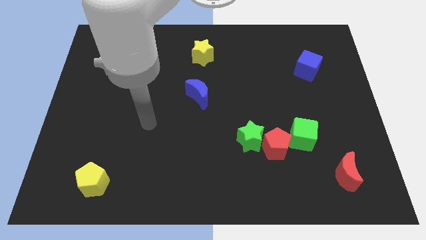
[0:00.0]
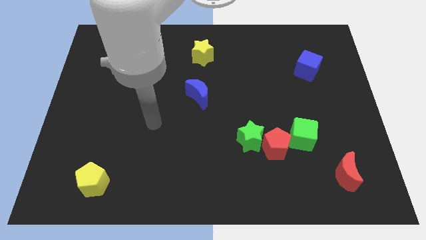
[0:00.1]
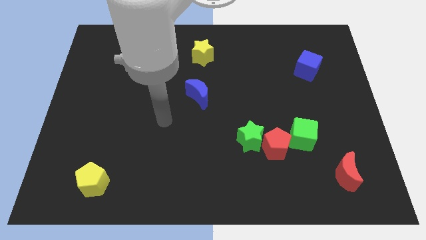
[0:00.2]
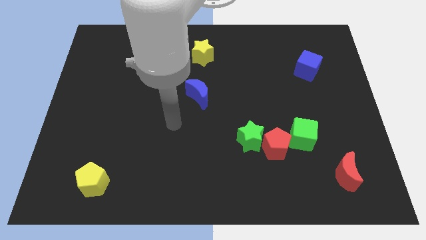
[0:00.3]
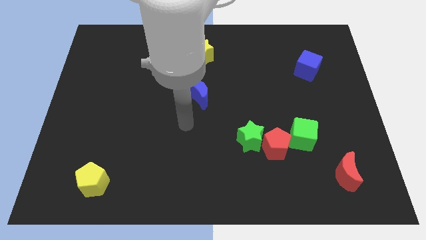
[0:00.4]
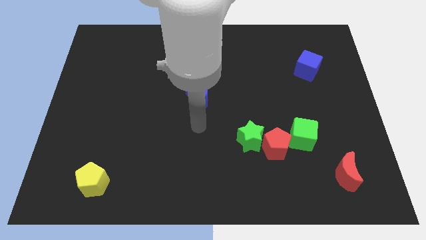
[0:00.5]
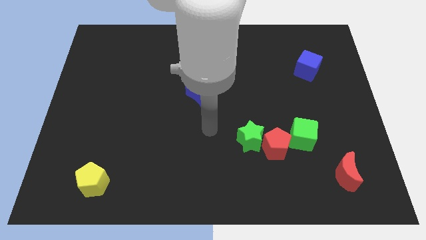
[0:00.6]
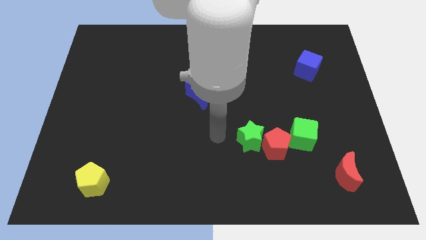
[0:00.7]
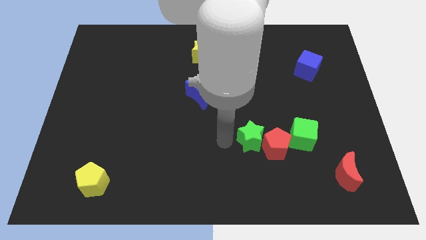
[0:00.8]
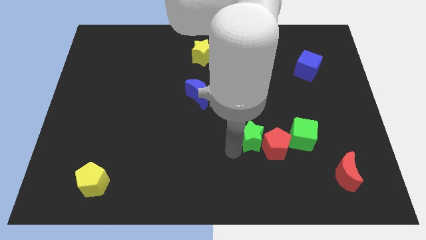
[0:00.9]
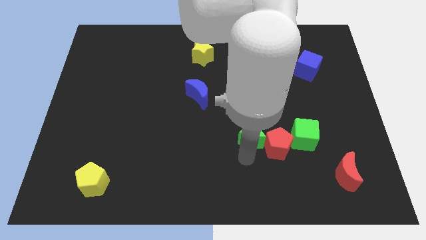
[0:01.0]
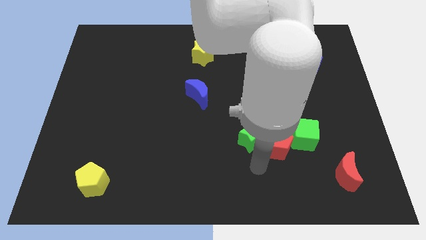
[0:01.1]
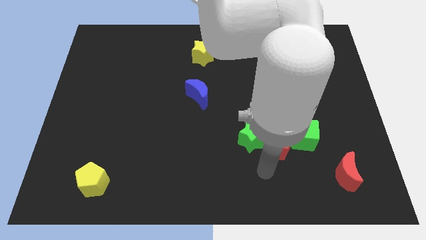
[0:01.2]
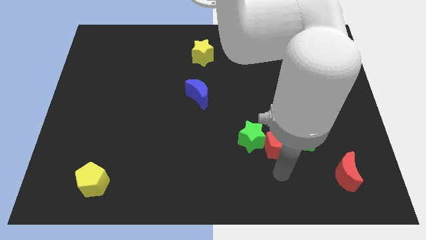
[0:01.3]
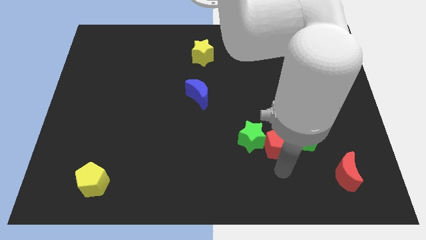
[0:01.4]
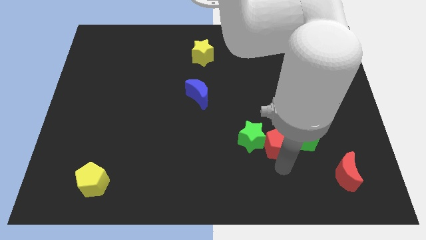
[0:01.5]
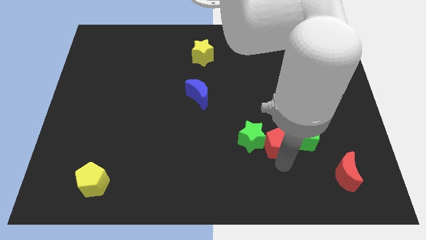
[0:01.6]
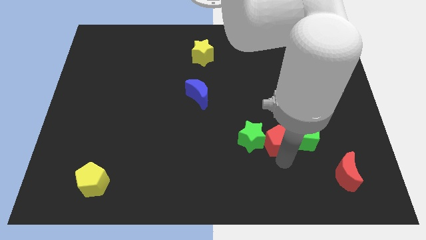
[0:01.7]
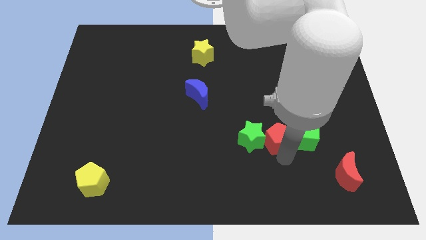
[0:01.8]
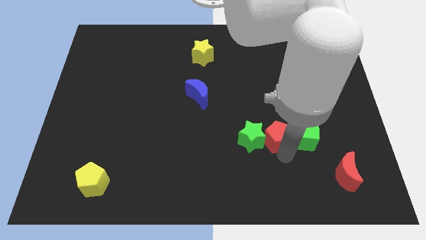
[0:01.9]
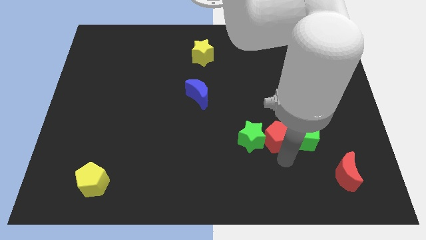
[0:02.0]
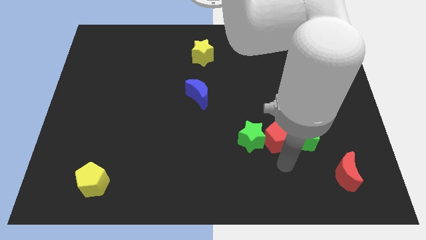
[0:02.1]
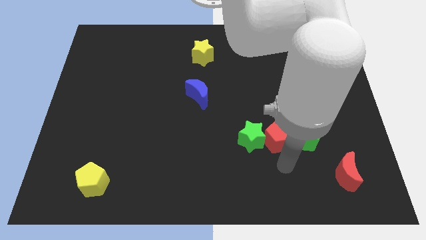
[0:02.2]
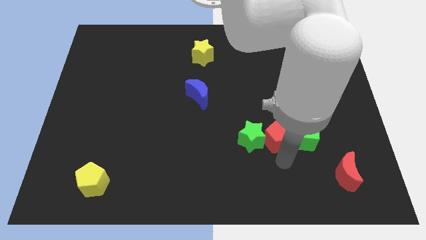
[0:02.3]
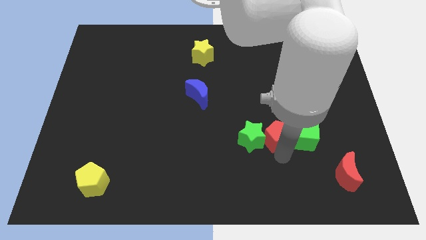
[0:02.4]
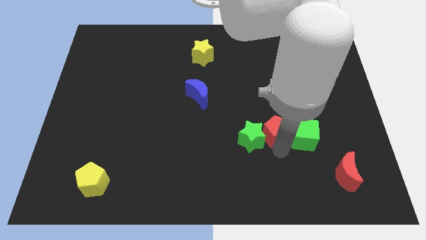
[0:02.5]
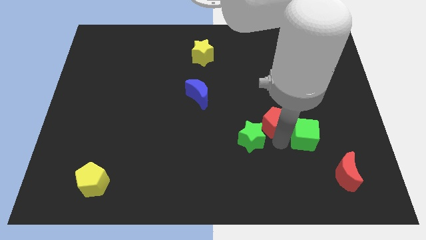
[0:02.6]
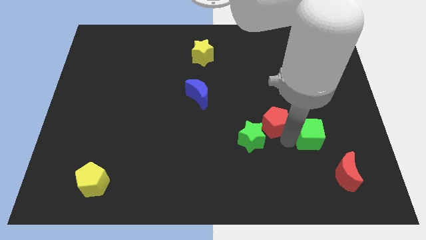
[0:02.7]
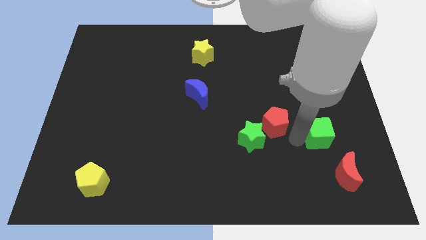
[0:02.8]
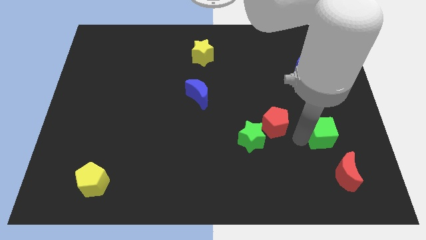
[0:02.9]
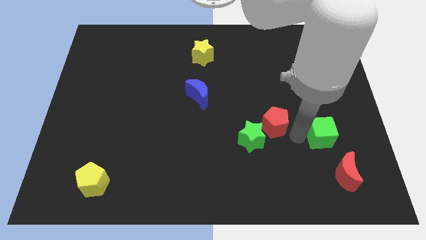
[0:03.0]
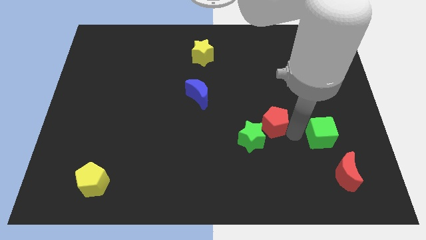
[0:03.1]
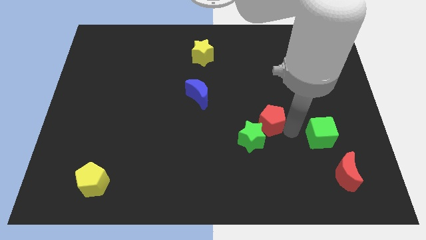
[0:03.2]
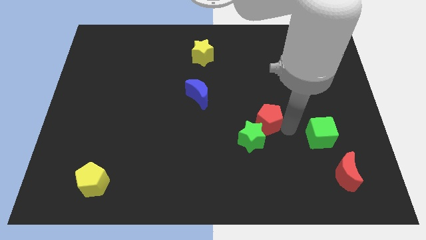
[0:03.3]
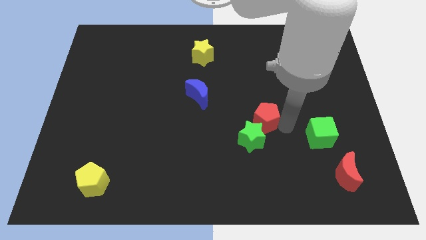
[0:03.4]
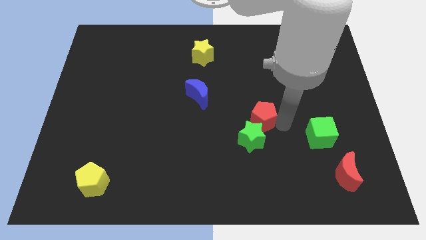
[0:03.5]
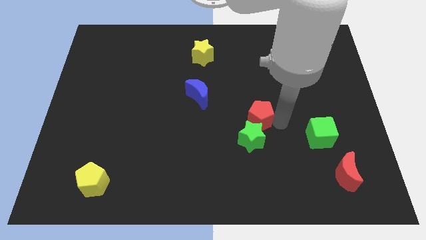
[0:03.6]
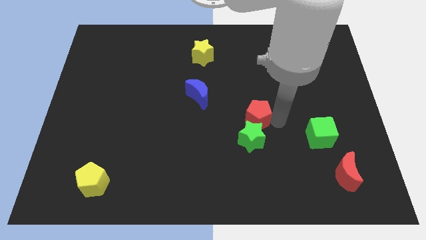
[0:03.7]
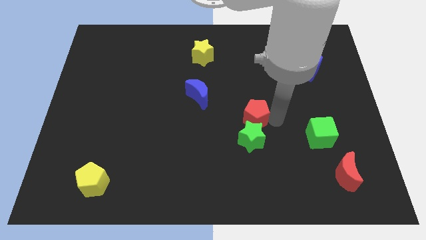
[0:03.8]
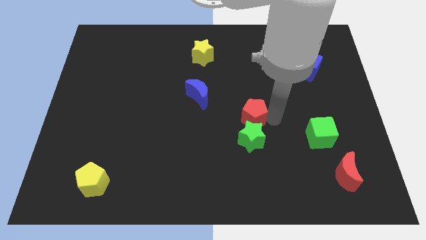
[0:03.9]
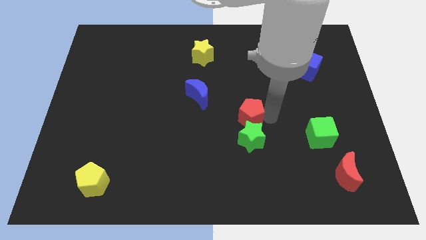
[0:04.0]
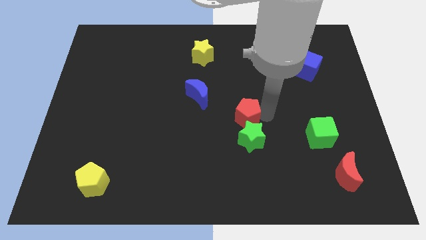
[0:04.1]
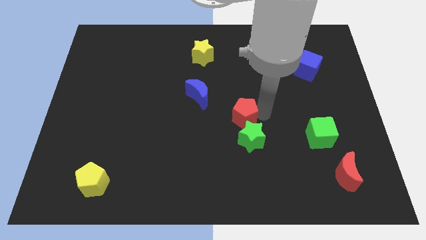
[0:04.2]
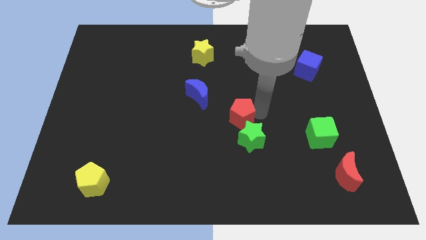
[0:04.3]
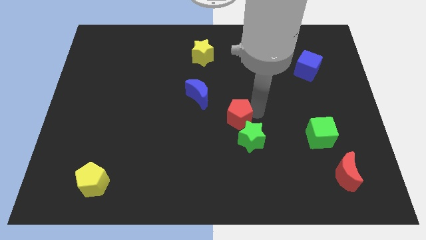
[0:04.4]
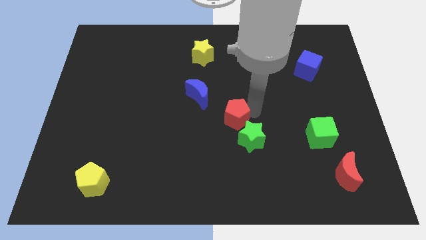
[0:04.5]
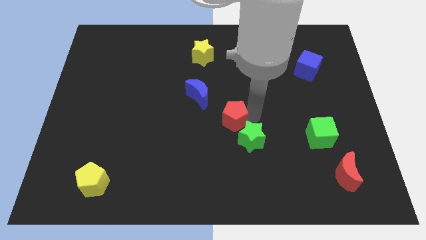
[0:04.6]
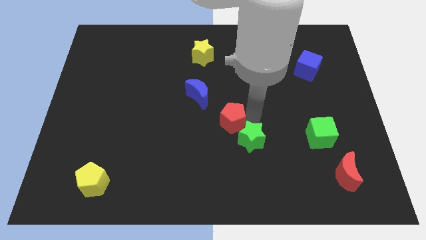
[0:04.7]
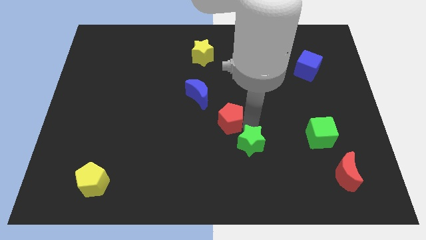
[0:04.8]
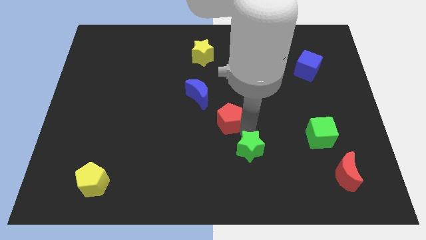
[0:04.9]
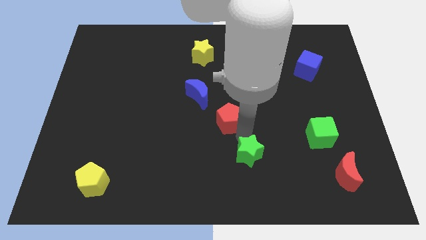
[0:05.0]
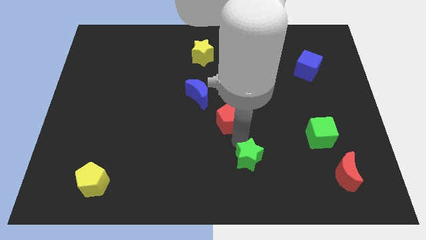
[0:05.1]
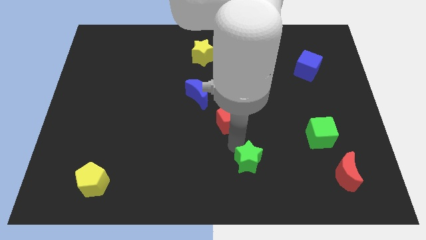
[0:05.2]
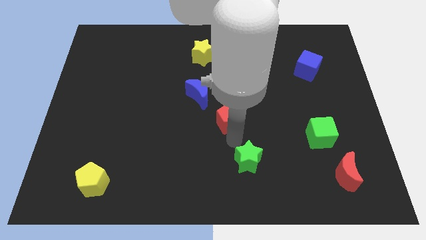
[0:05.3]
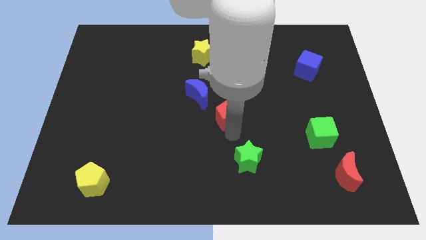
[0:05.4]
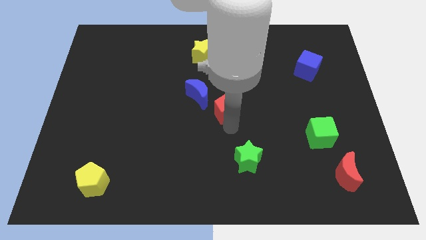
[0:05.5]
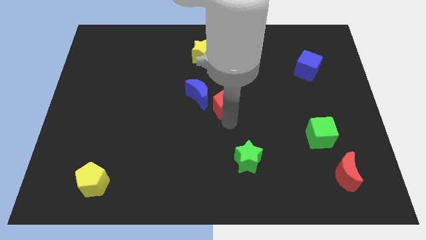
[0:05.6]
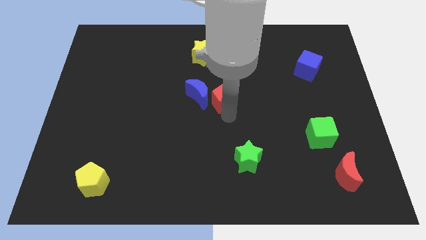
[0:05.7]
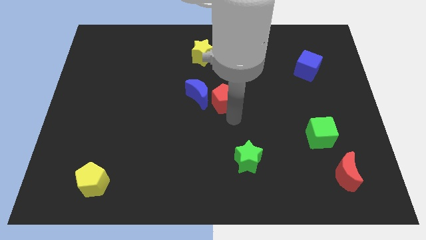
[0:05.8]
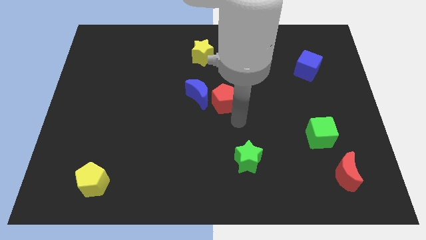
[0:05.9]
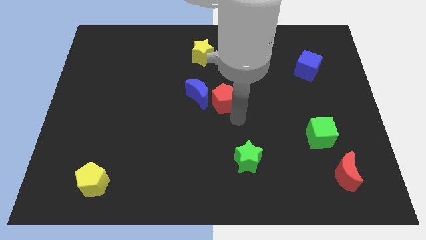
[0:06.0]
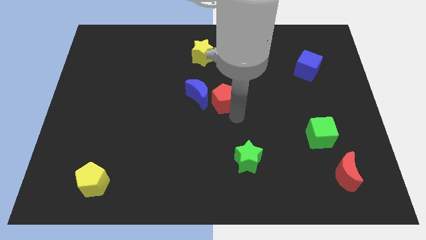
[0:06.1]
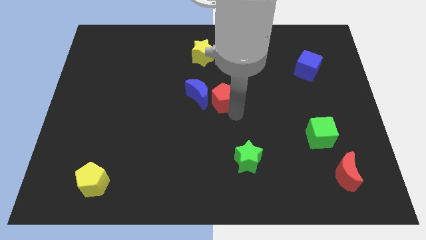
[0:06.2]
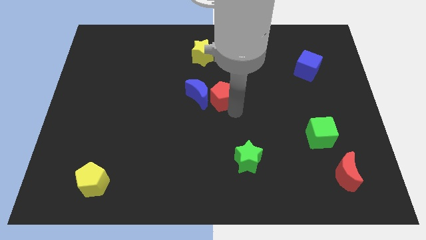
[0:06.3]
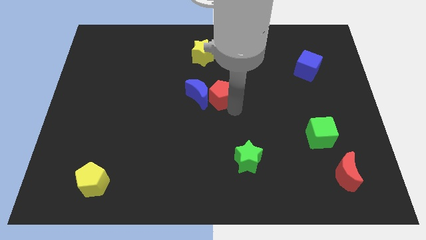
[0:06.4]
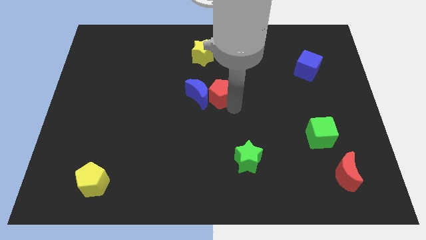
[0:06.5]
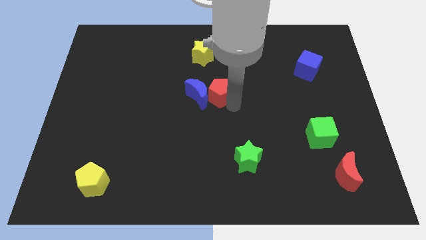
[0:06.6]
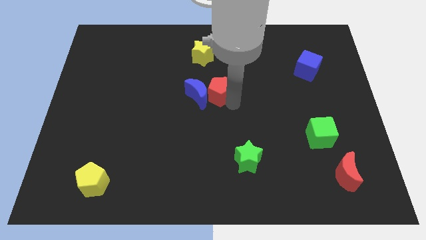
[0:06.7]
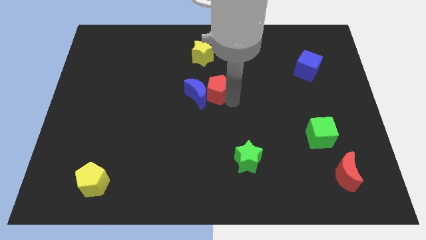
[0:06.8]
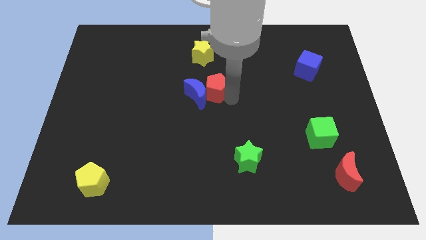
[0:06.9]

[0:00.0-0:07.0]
push the red pentagon up and then left

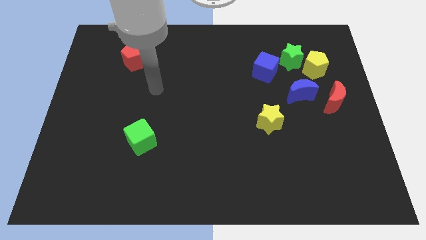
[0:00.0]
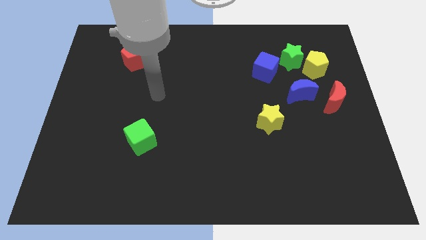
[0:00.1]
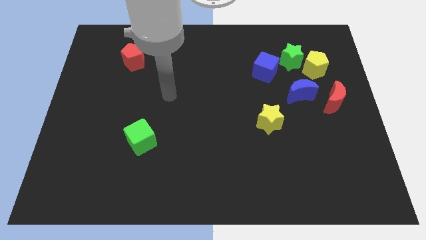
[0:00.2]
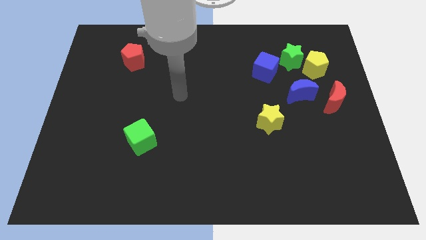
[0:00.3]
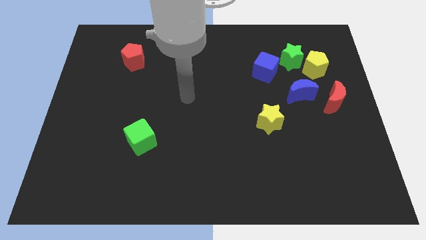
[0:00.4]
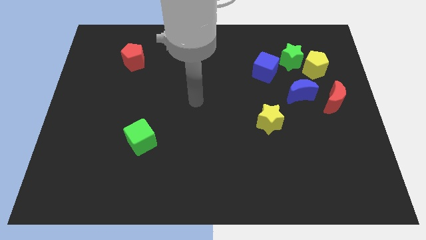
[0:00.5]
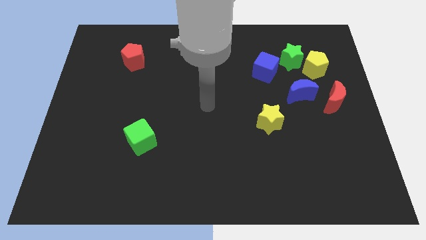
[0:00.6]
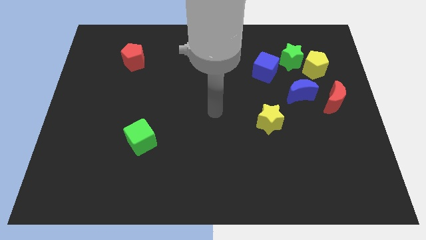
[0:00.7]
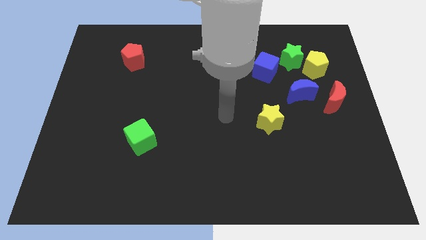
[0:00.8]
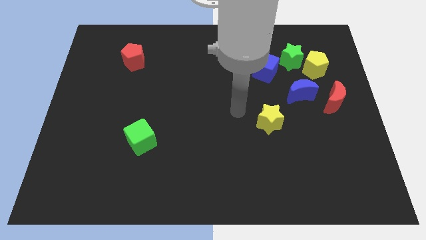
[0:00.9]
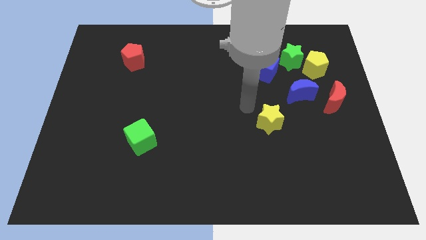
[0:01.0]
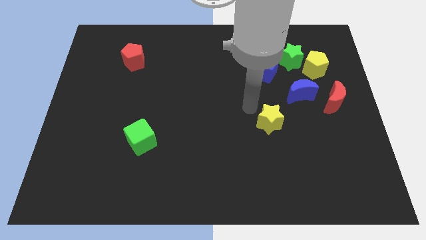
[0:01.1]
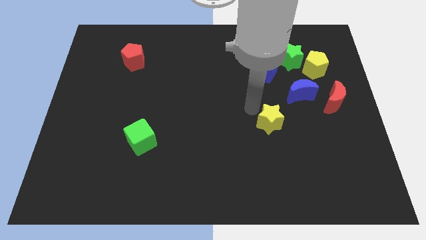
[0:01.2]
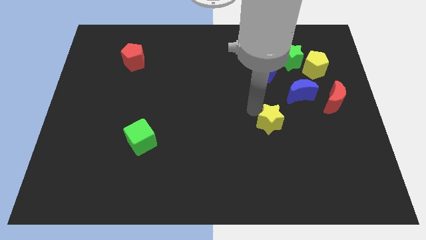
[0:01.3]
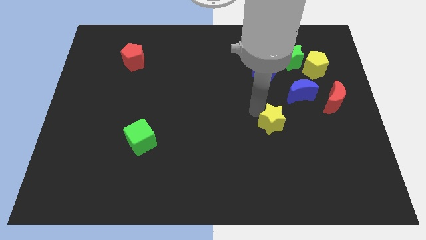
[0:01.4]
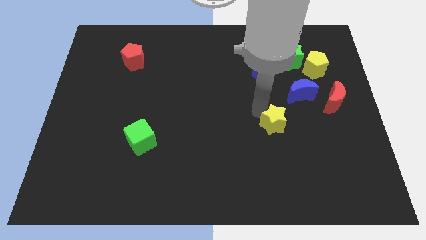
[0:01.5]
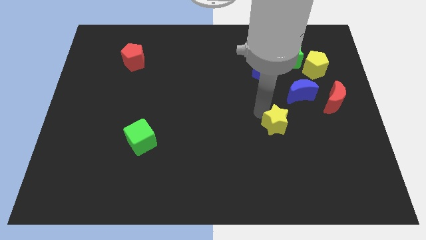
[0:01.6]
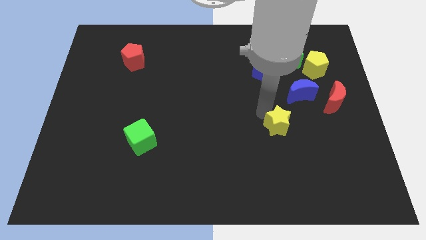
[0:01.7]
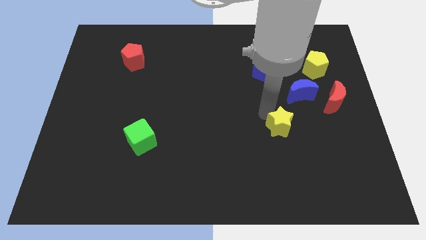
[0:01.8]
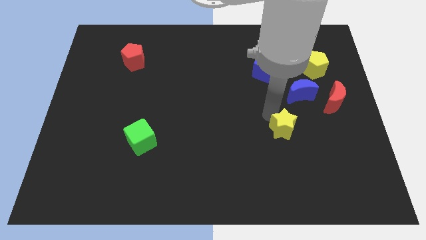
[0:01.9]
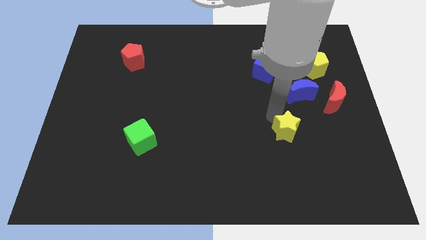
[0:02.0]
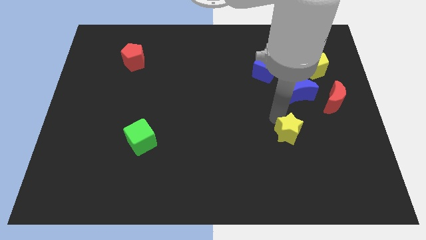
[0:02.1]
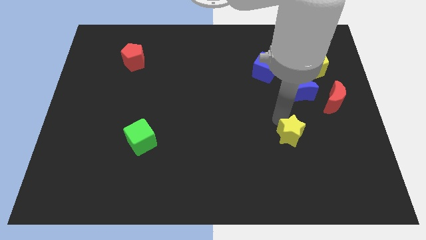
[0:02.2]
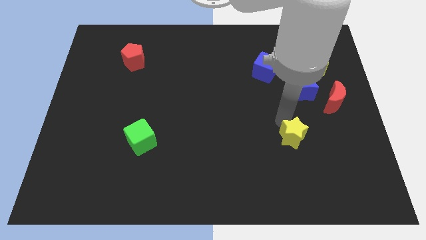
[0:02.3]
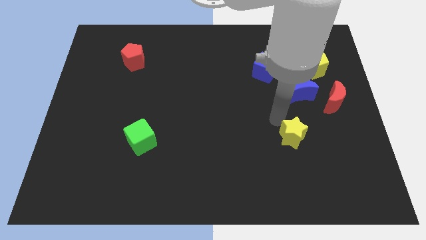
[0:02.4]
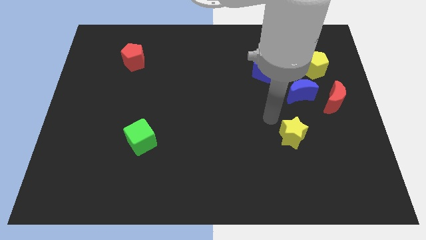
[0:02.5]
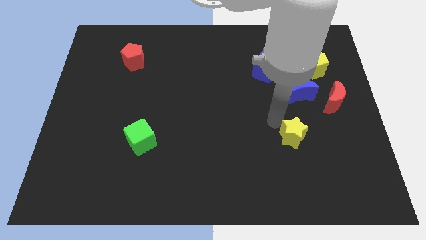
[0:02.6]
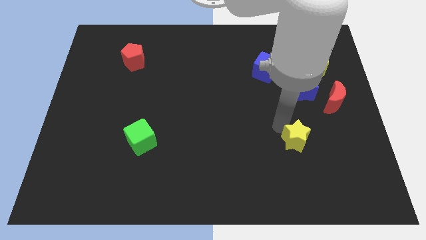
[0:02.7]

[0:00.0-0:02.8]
push the yellow star a little bit downwards and right
